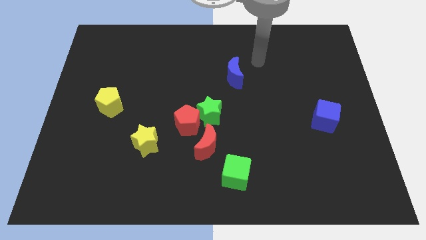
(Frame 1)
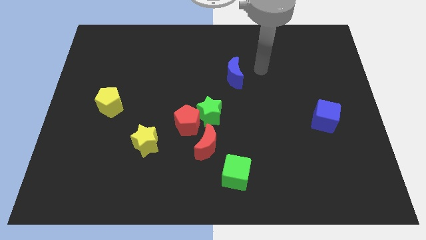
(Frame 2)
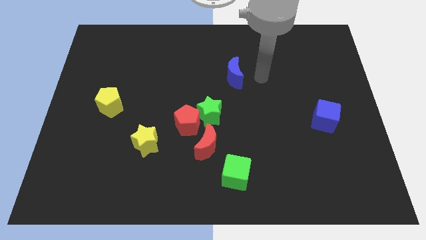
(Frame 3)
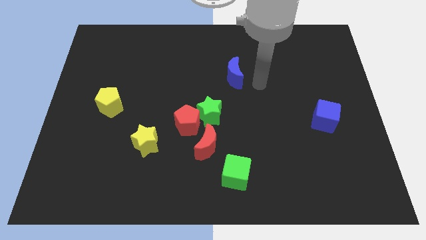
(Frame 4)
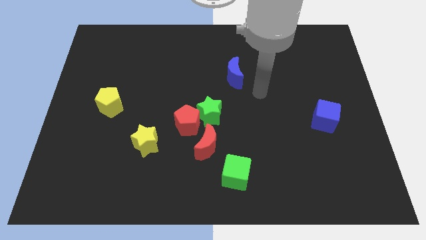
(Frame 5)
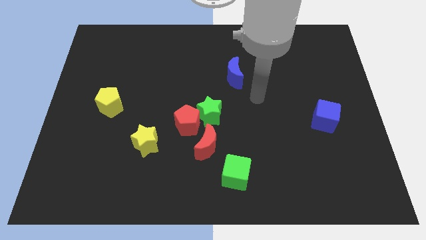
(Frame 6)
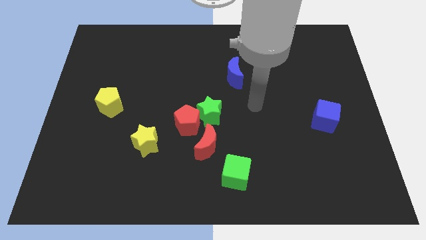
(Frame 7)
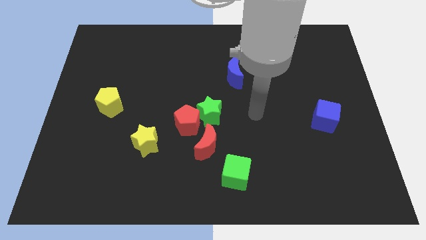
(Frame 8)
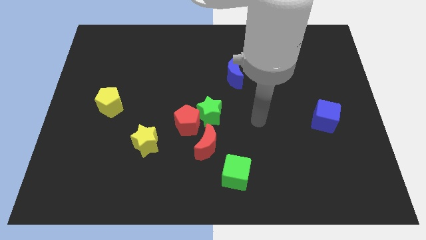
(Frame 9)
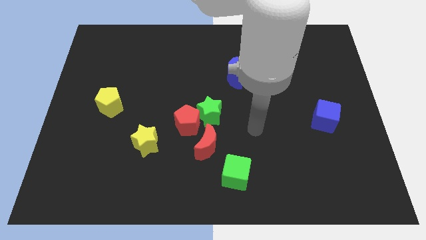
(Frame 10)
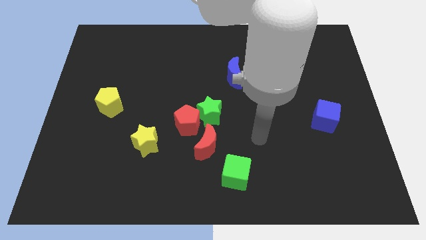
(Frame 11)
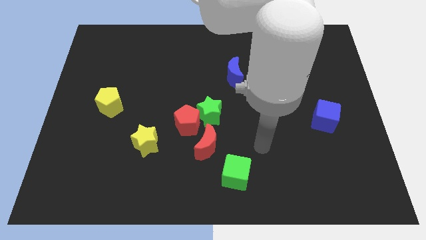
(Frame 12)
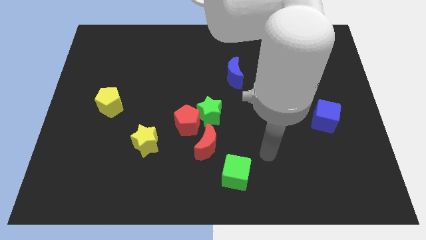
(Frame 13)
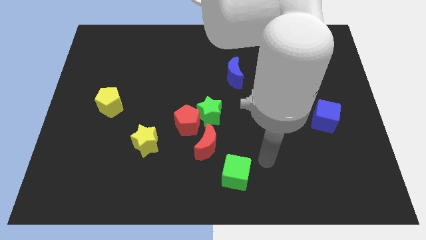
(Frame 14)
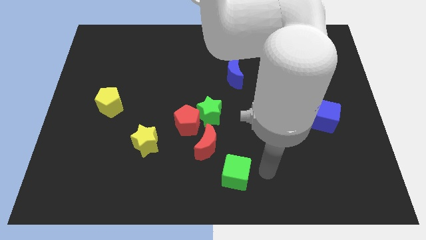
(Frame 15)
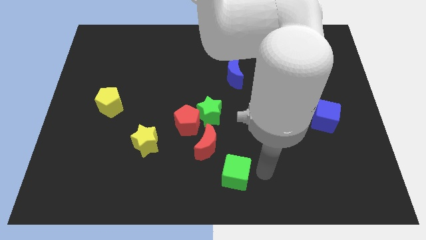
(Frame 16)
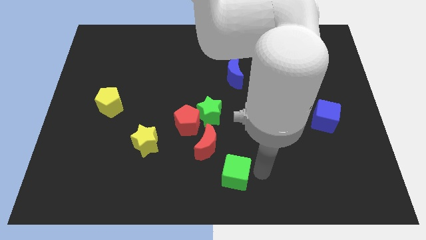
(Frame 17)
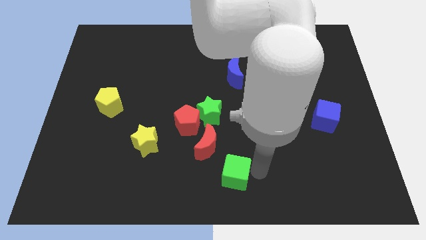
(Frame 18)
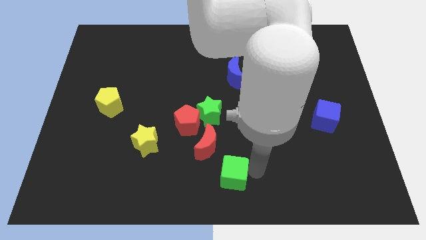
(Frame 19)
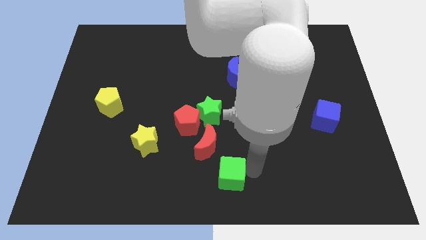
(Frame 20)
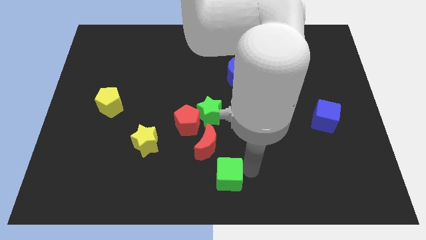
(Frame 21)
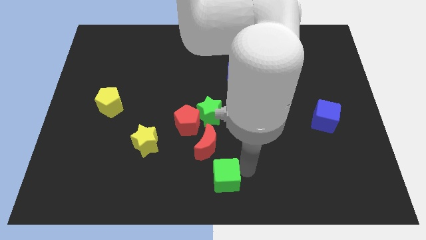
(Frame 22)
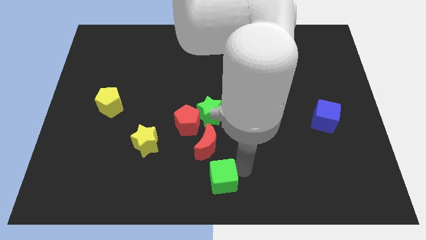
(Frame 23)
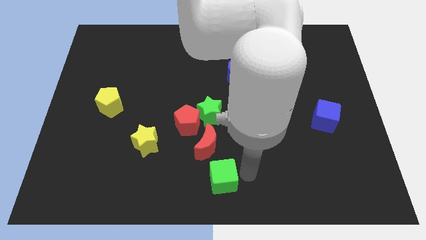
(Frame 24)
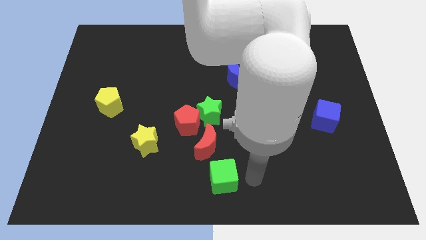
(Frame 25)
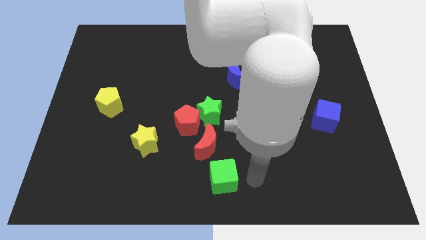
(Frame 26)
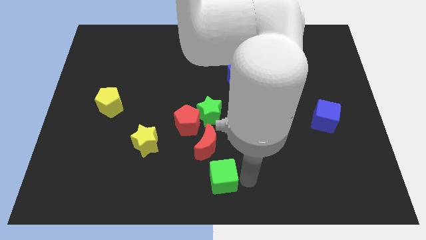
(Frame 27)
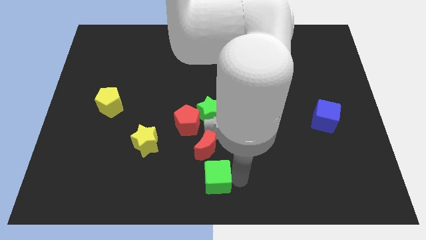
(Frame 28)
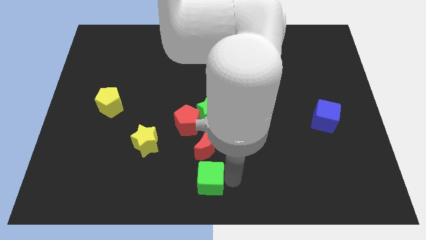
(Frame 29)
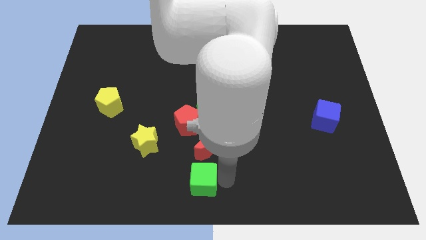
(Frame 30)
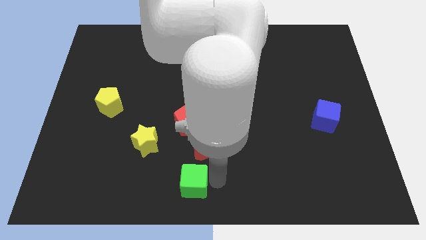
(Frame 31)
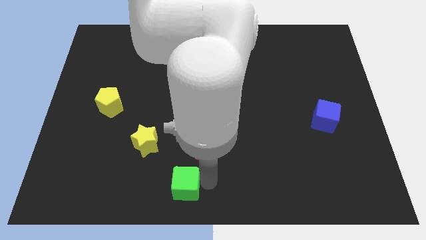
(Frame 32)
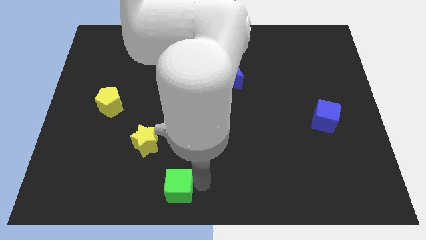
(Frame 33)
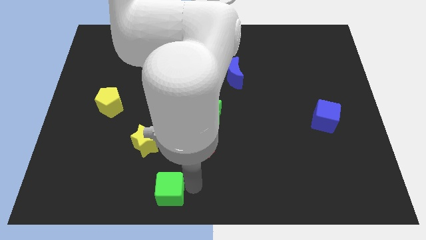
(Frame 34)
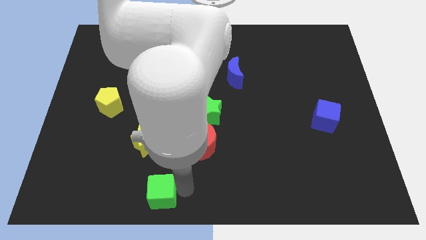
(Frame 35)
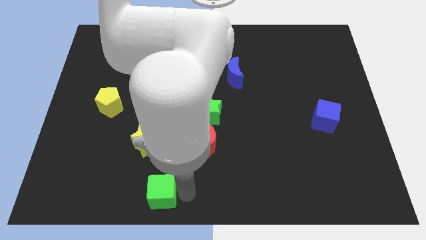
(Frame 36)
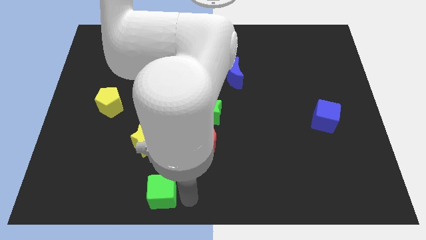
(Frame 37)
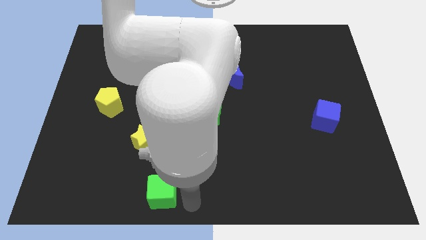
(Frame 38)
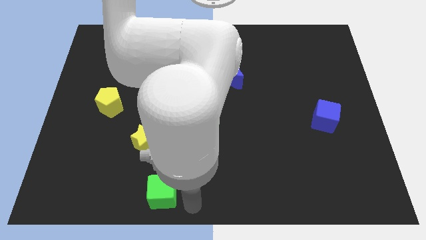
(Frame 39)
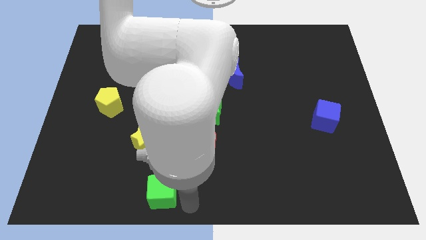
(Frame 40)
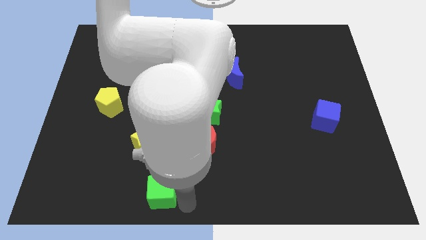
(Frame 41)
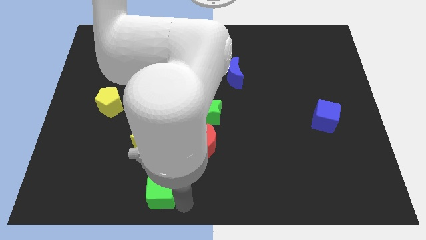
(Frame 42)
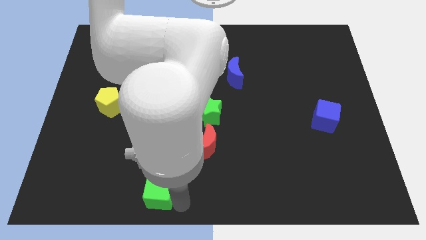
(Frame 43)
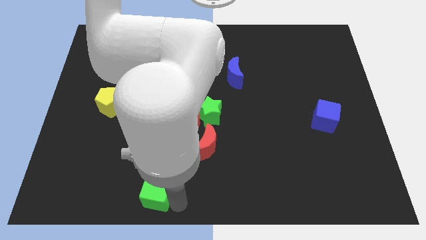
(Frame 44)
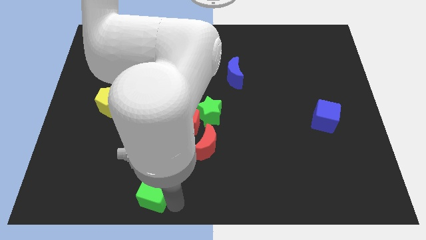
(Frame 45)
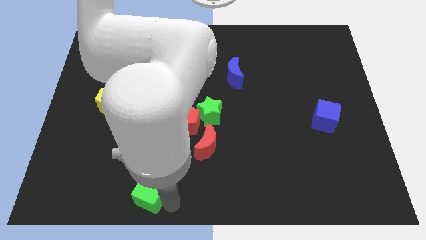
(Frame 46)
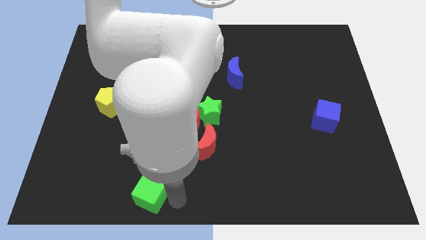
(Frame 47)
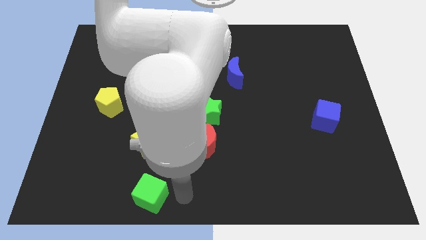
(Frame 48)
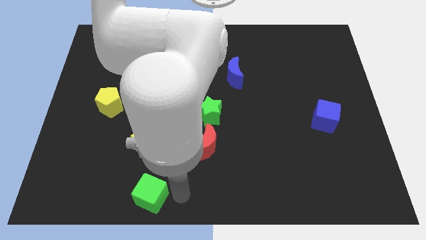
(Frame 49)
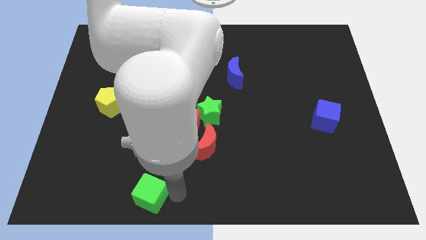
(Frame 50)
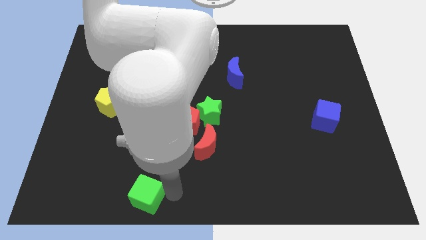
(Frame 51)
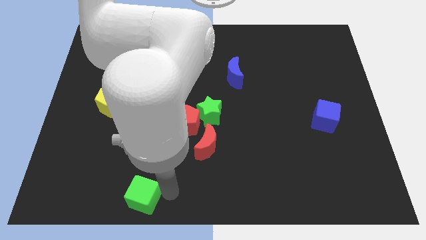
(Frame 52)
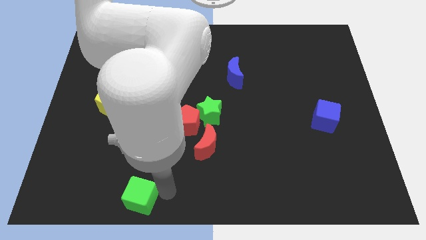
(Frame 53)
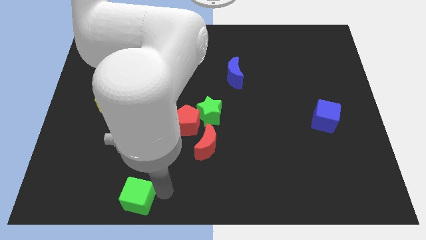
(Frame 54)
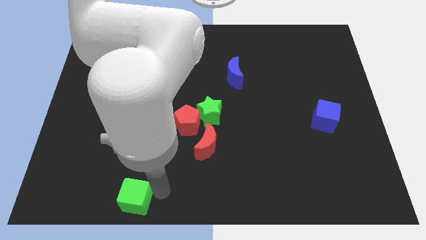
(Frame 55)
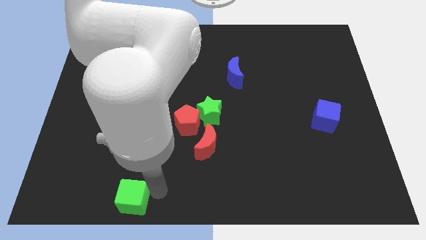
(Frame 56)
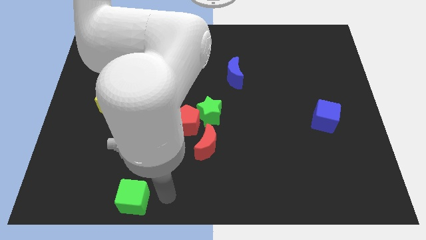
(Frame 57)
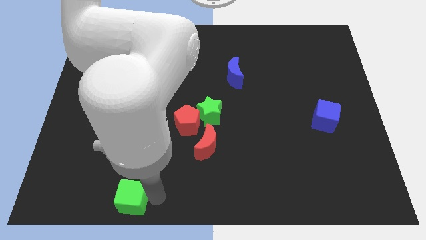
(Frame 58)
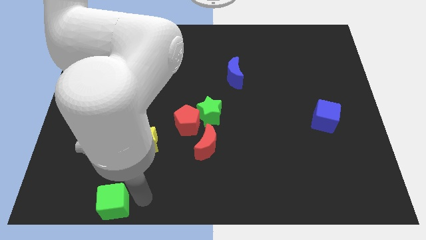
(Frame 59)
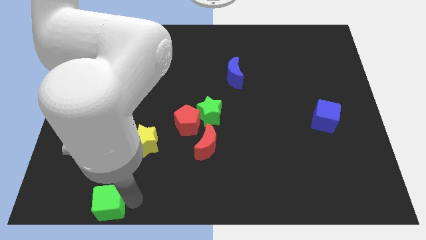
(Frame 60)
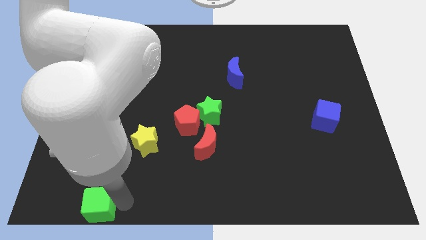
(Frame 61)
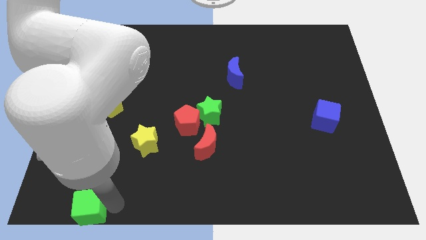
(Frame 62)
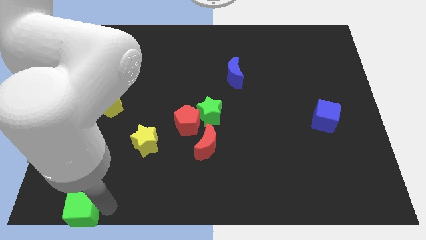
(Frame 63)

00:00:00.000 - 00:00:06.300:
move the green cube to the bottom left of the board
